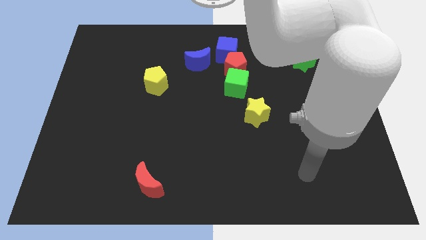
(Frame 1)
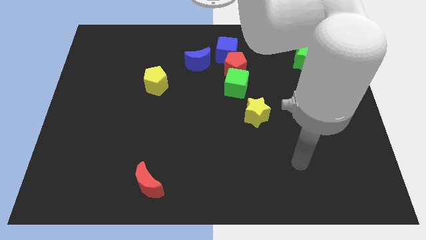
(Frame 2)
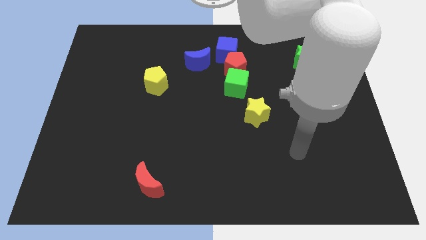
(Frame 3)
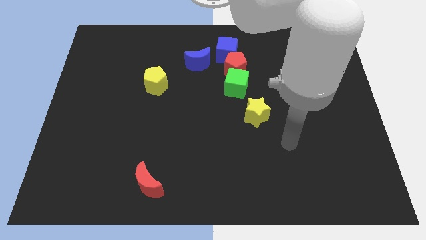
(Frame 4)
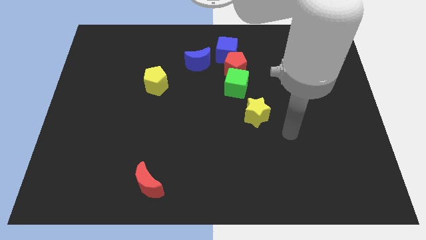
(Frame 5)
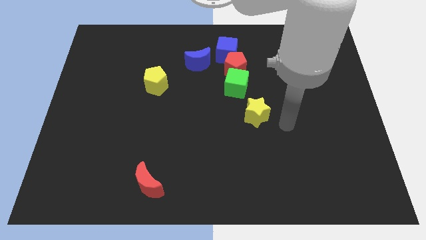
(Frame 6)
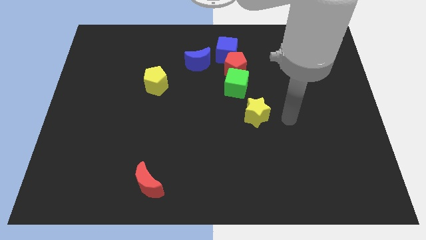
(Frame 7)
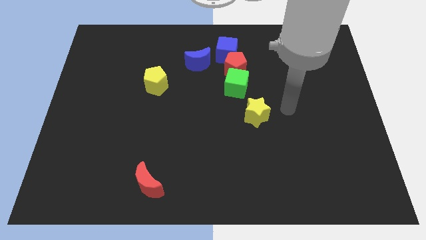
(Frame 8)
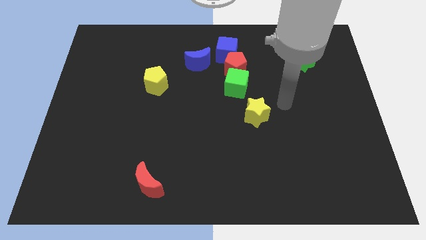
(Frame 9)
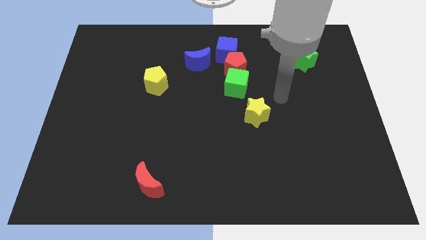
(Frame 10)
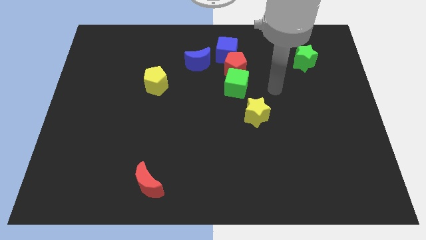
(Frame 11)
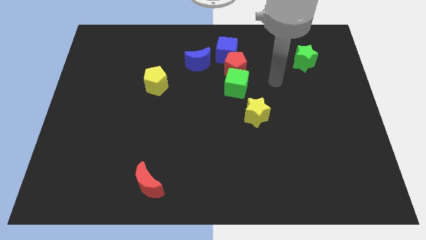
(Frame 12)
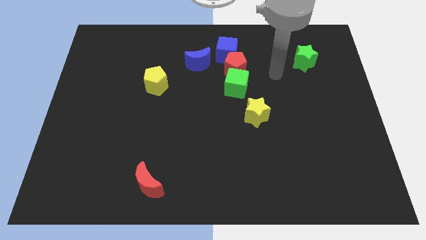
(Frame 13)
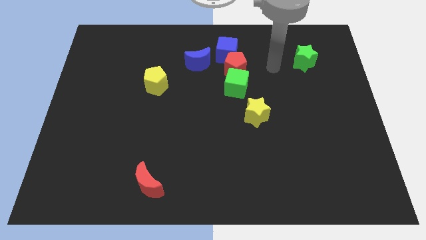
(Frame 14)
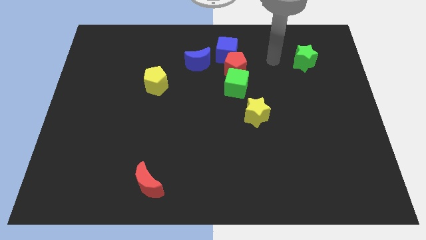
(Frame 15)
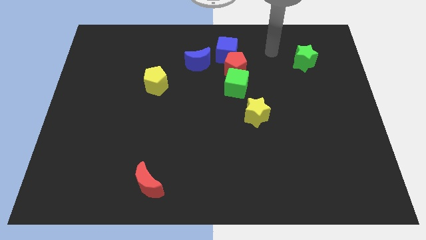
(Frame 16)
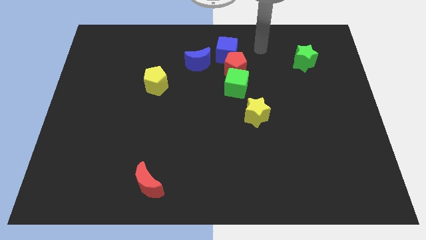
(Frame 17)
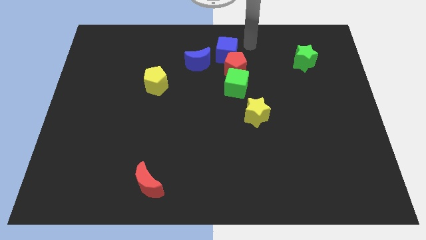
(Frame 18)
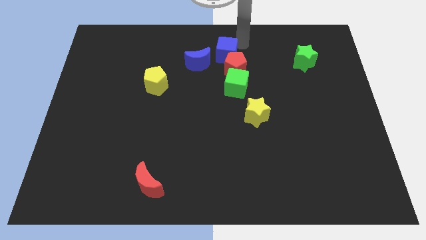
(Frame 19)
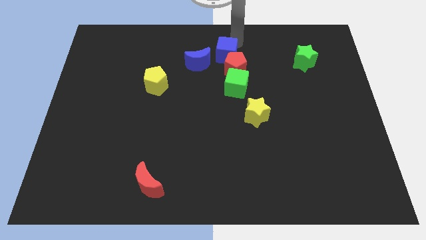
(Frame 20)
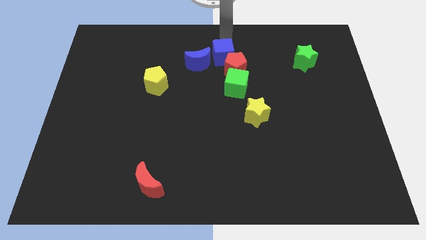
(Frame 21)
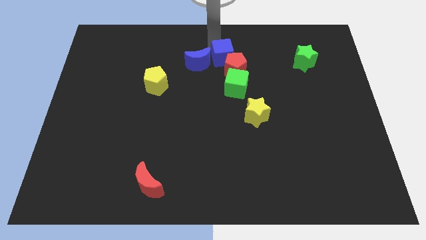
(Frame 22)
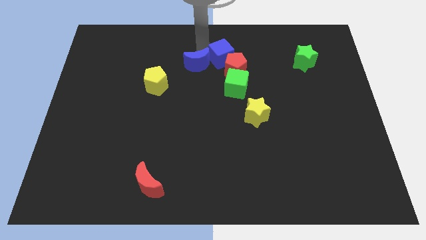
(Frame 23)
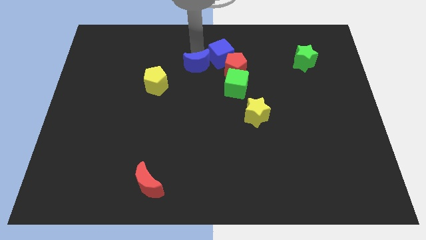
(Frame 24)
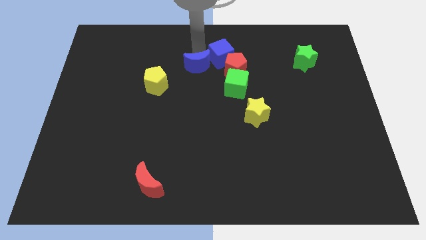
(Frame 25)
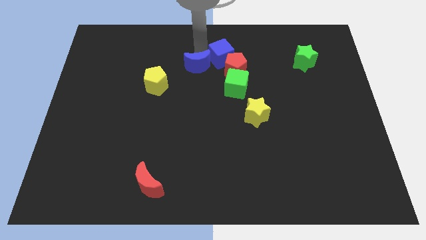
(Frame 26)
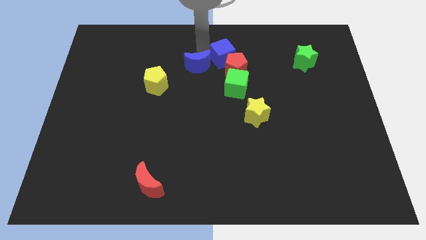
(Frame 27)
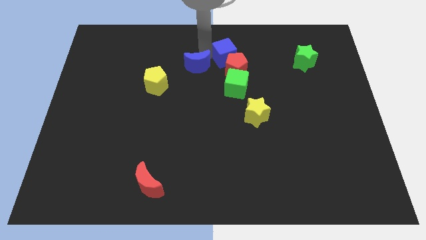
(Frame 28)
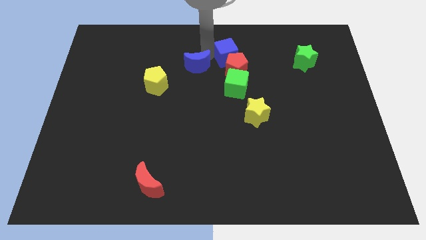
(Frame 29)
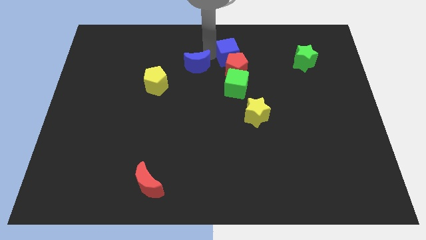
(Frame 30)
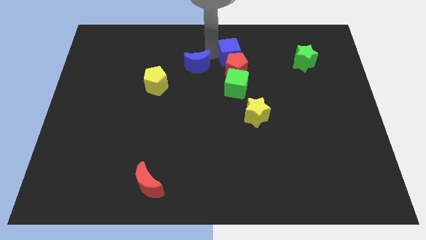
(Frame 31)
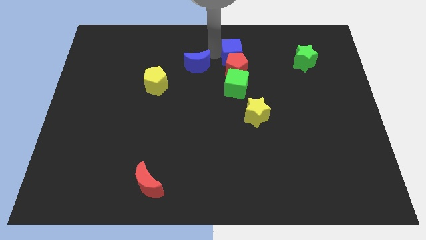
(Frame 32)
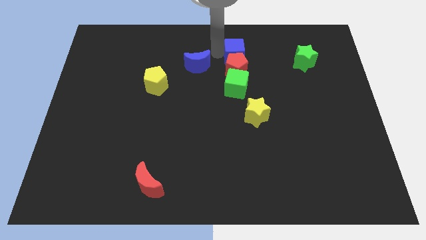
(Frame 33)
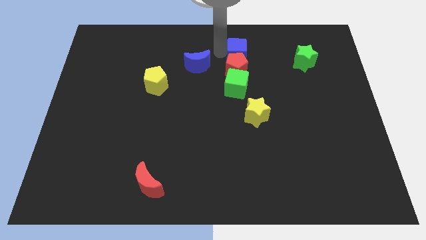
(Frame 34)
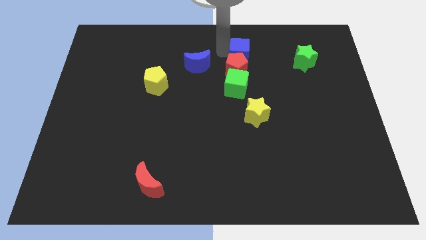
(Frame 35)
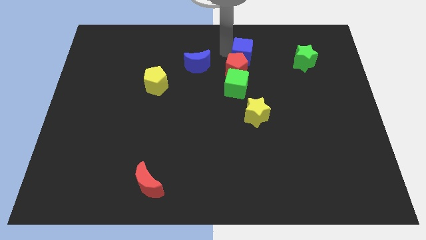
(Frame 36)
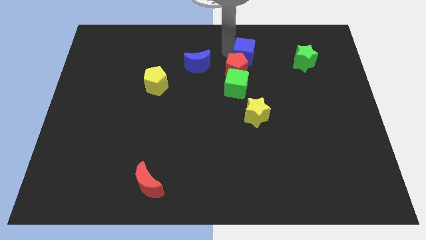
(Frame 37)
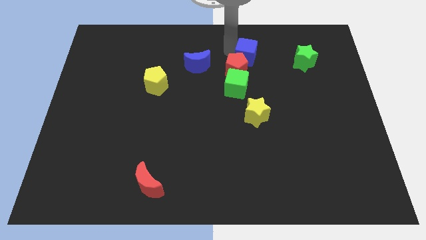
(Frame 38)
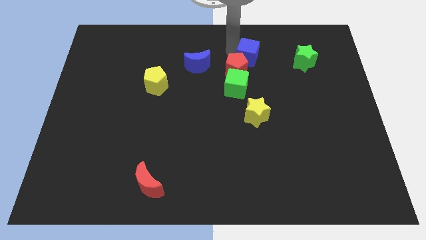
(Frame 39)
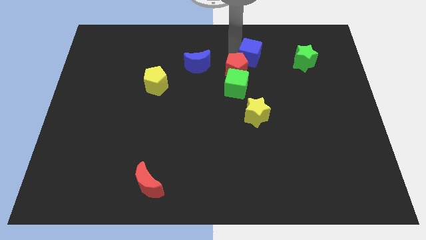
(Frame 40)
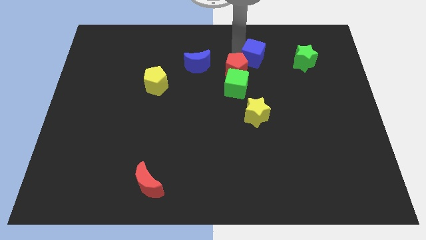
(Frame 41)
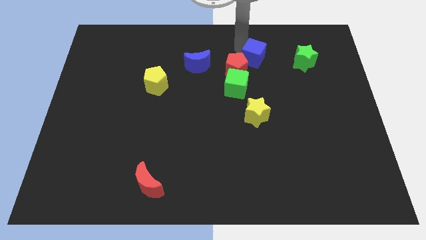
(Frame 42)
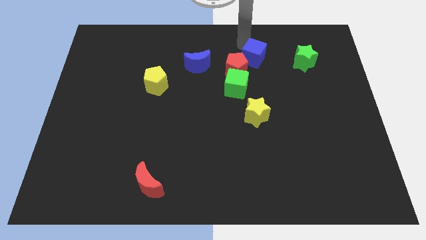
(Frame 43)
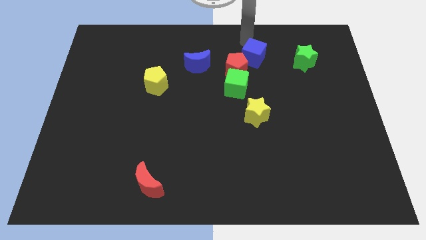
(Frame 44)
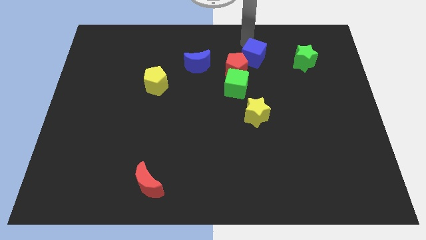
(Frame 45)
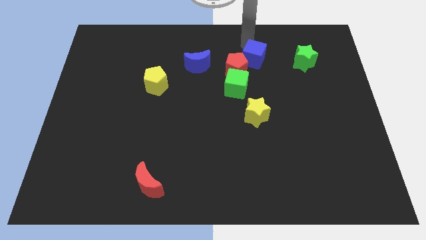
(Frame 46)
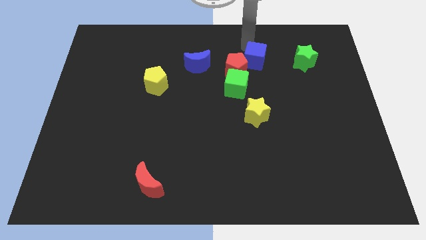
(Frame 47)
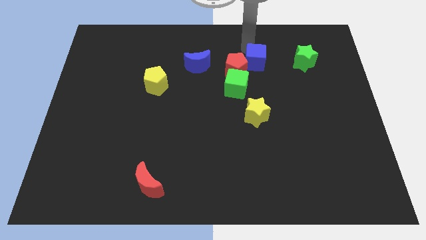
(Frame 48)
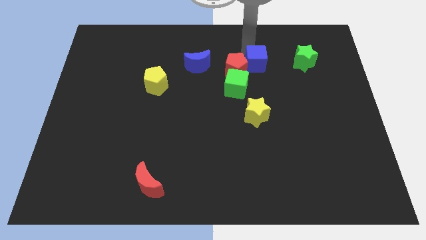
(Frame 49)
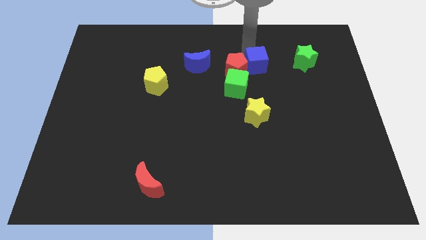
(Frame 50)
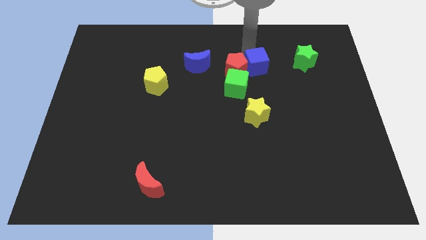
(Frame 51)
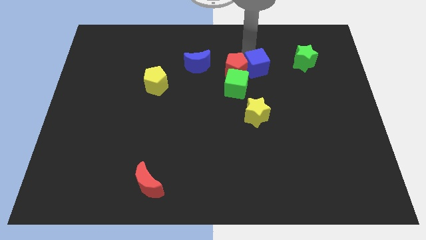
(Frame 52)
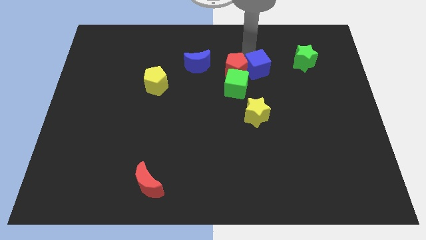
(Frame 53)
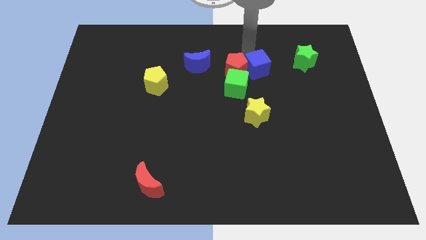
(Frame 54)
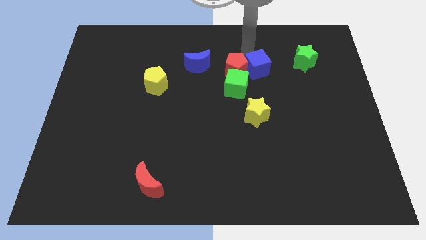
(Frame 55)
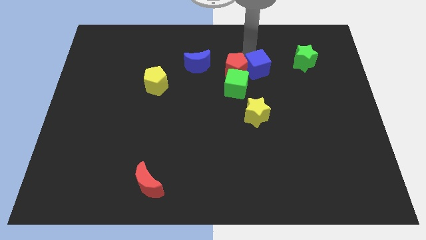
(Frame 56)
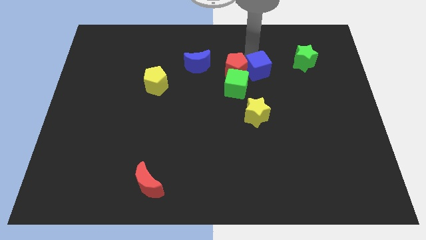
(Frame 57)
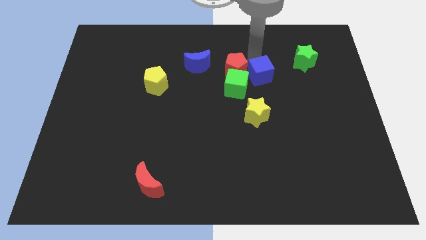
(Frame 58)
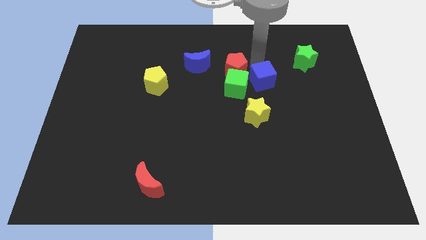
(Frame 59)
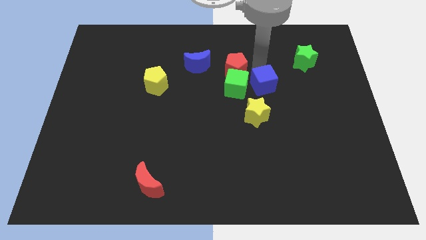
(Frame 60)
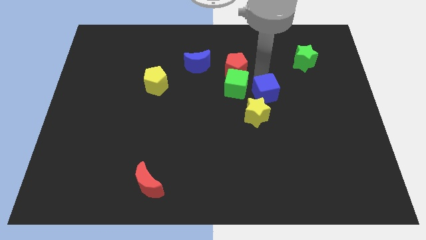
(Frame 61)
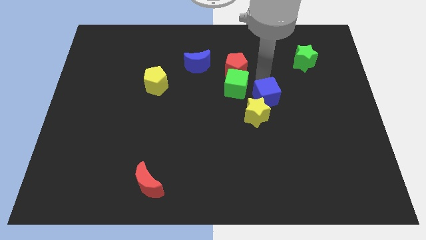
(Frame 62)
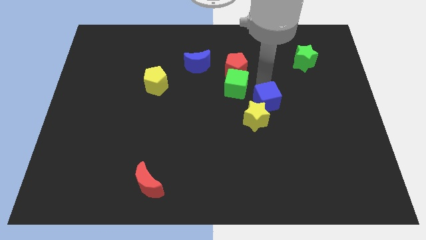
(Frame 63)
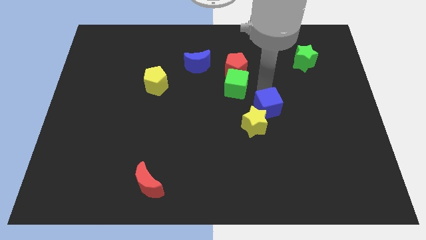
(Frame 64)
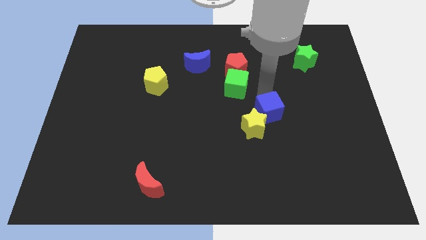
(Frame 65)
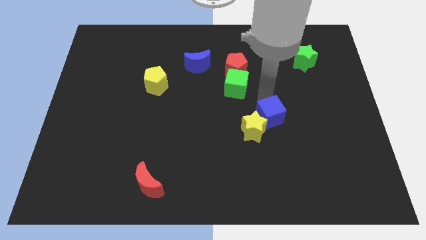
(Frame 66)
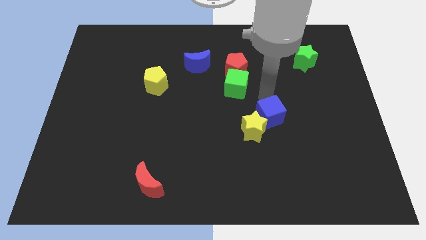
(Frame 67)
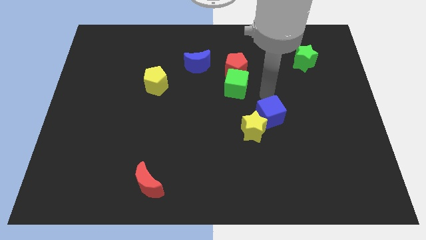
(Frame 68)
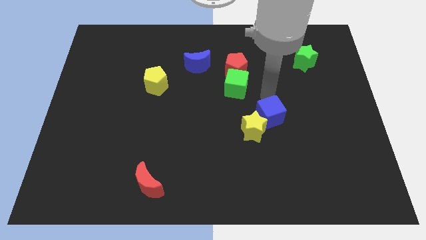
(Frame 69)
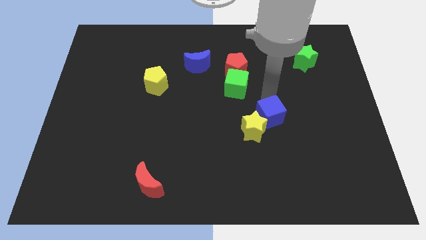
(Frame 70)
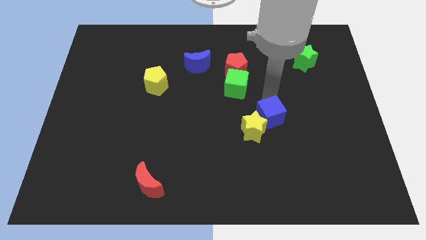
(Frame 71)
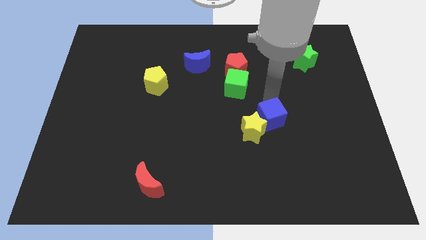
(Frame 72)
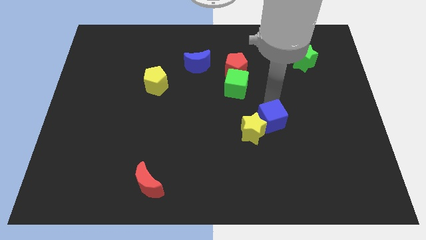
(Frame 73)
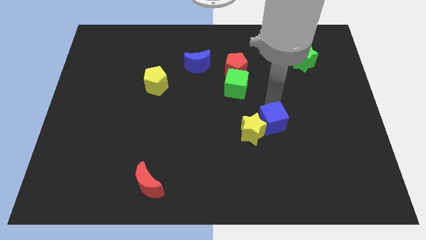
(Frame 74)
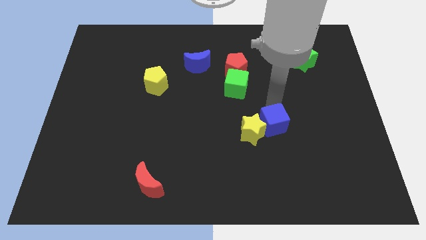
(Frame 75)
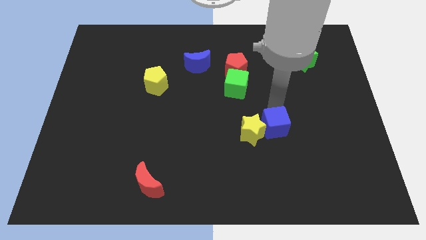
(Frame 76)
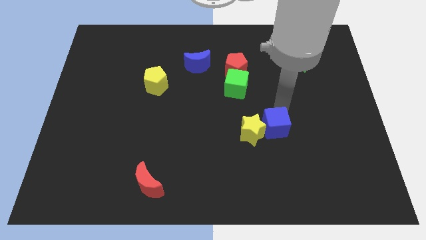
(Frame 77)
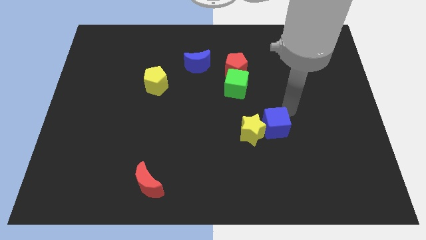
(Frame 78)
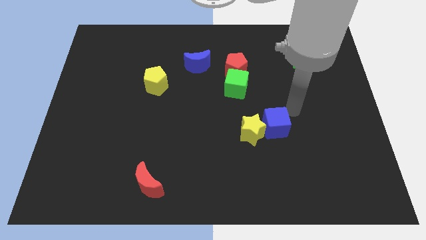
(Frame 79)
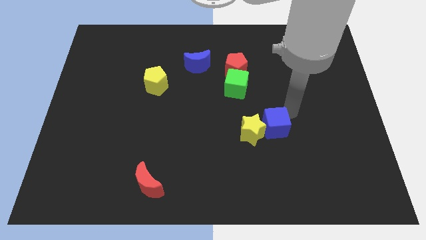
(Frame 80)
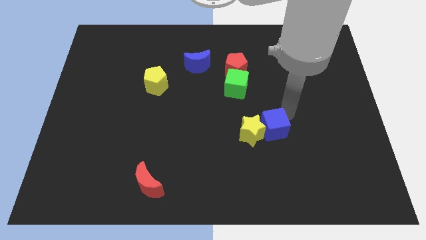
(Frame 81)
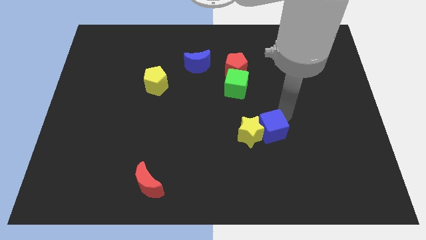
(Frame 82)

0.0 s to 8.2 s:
slide the blue cube down
